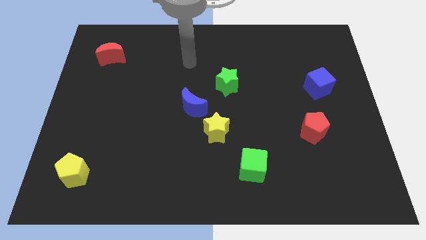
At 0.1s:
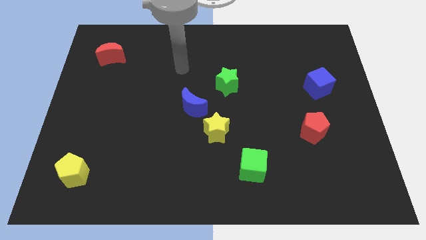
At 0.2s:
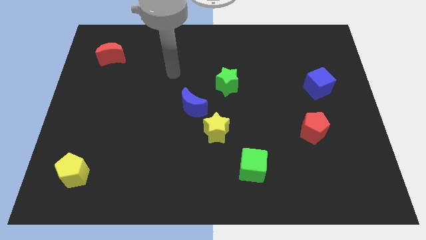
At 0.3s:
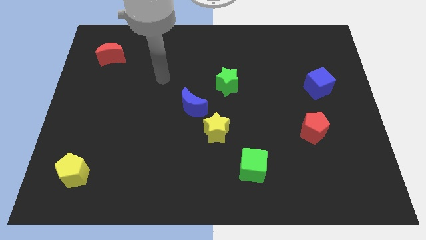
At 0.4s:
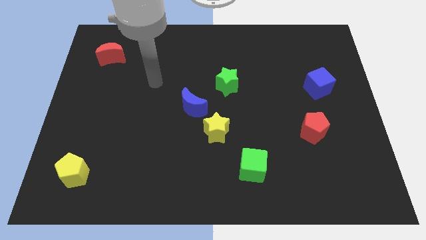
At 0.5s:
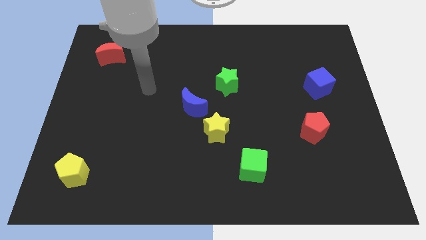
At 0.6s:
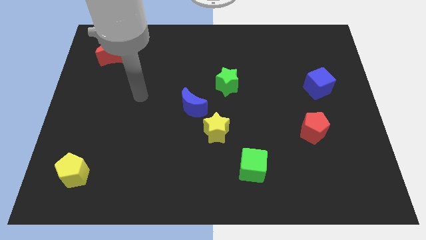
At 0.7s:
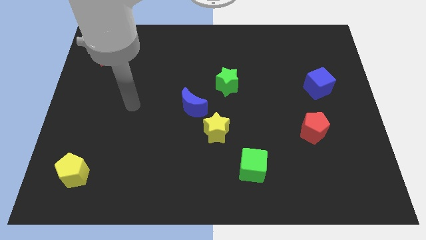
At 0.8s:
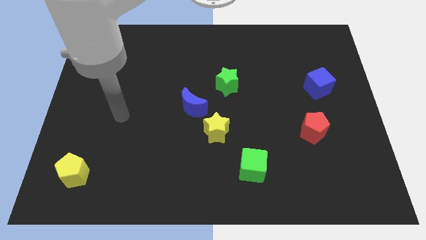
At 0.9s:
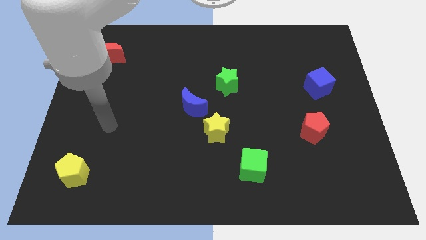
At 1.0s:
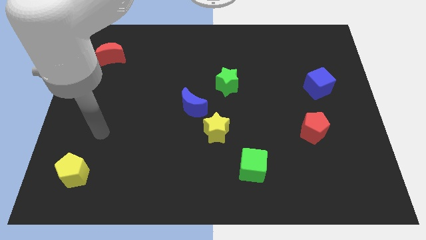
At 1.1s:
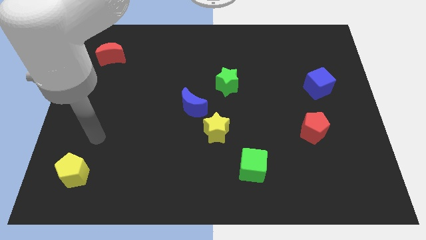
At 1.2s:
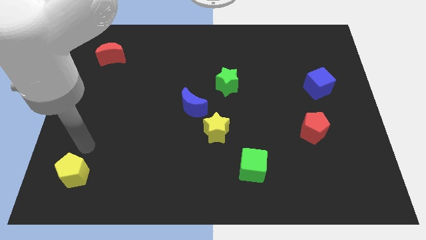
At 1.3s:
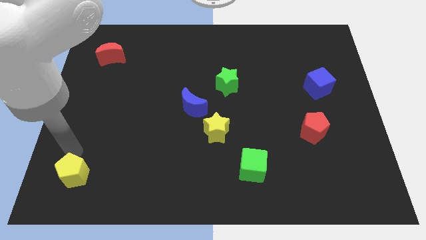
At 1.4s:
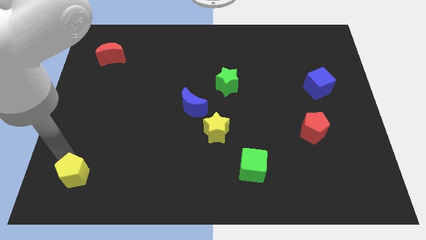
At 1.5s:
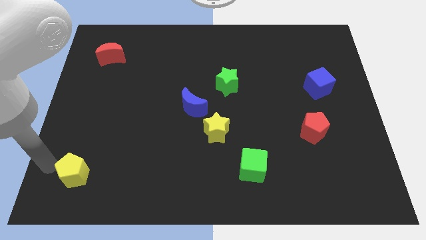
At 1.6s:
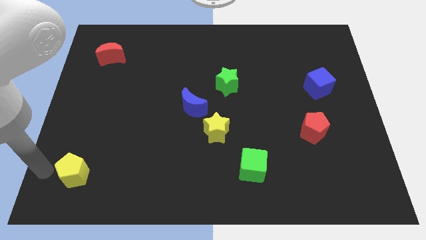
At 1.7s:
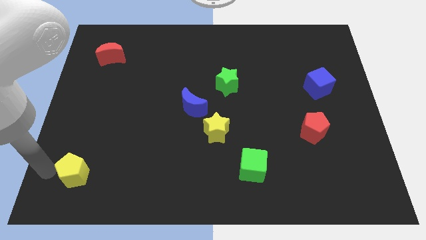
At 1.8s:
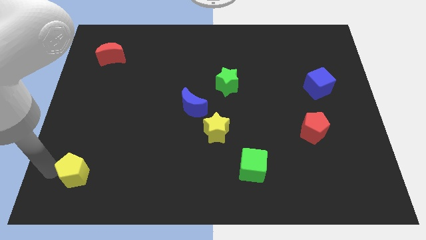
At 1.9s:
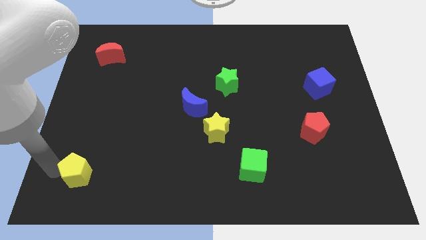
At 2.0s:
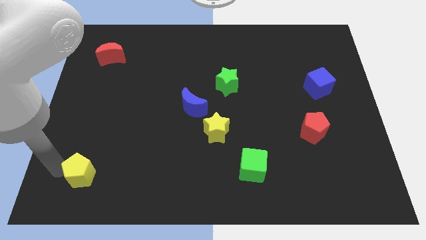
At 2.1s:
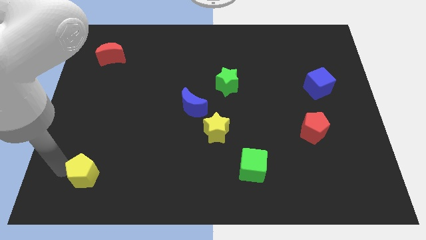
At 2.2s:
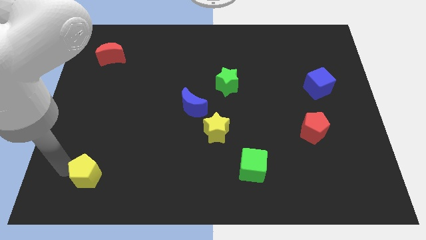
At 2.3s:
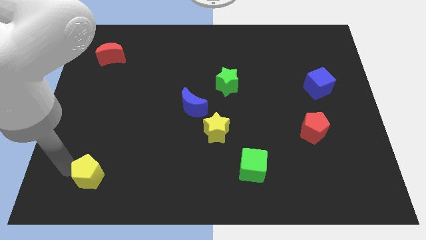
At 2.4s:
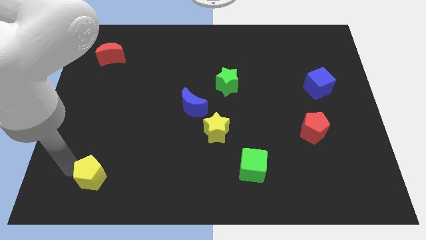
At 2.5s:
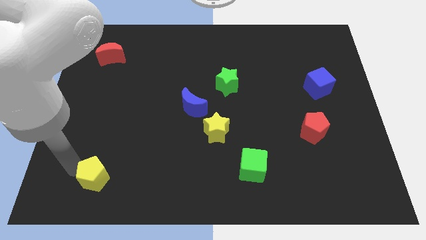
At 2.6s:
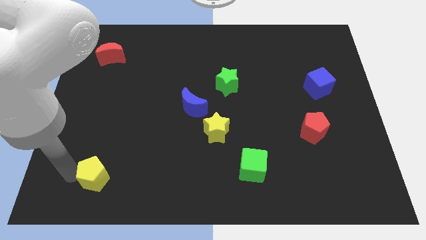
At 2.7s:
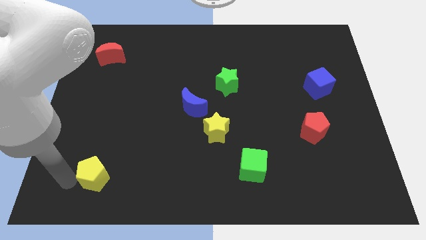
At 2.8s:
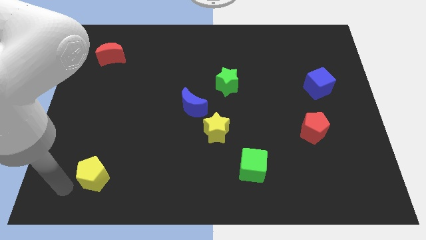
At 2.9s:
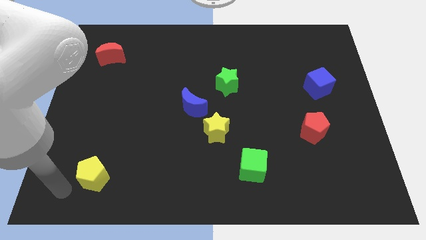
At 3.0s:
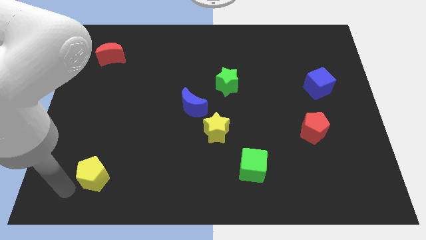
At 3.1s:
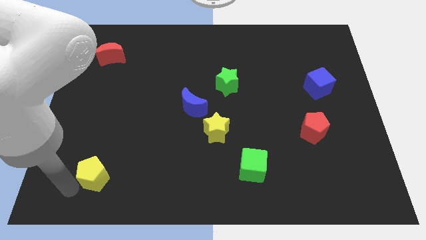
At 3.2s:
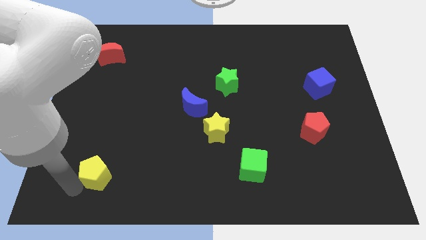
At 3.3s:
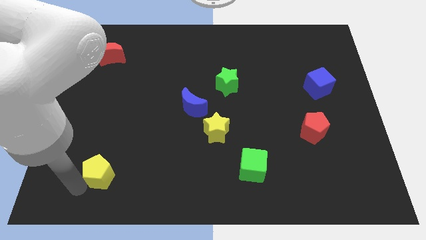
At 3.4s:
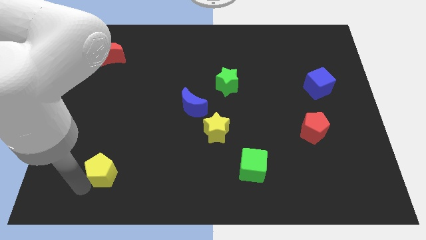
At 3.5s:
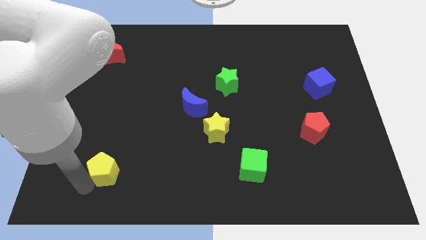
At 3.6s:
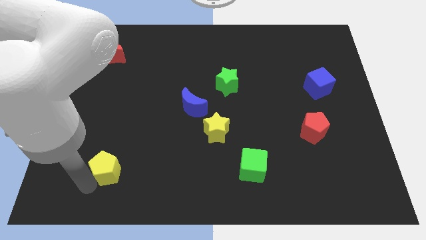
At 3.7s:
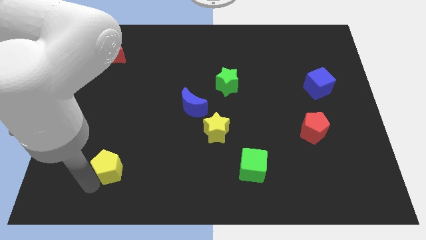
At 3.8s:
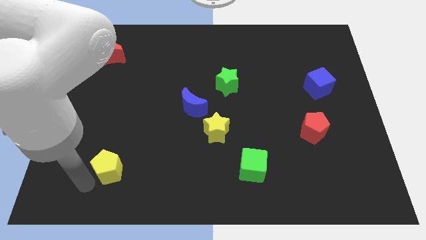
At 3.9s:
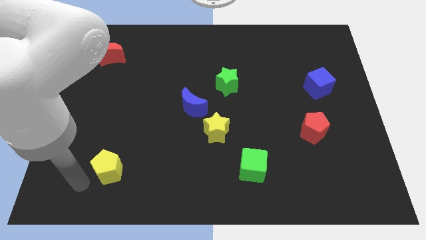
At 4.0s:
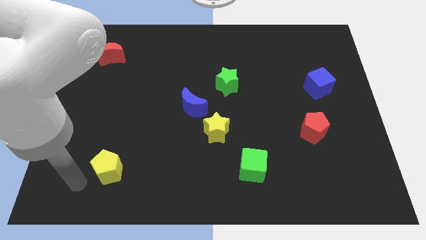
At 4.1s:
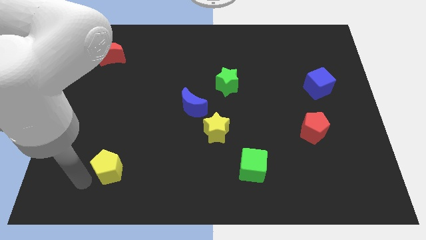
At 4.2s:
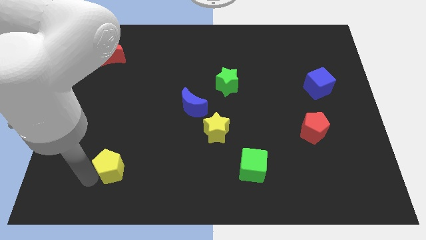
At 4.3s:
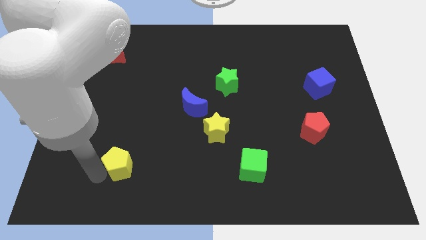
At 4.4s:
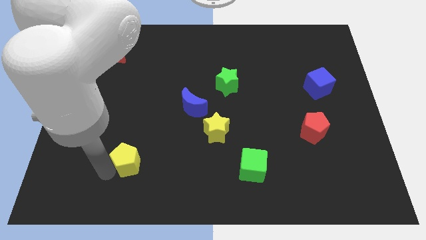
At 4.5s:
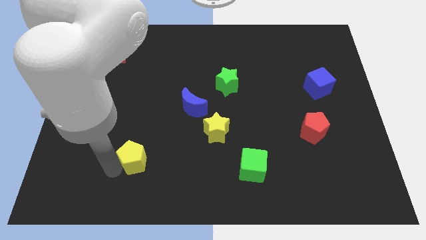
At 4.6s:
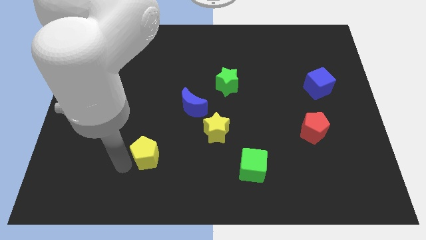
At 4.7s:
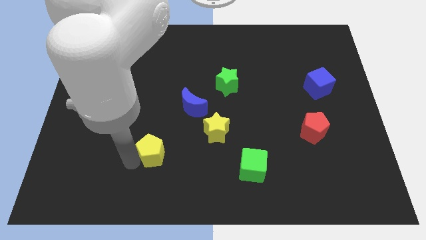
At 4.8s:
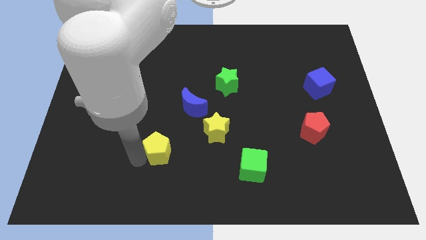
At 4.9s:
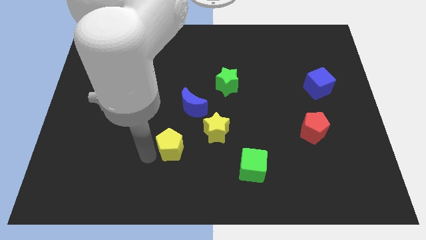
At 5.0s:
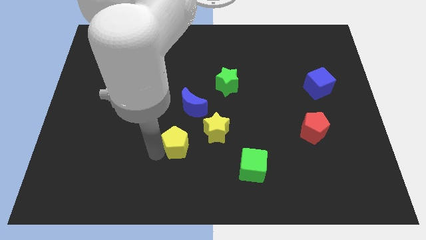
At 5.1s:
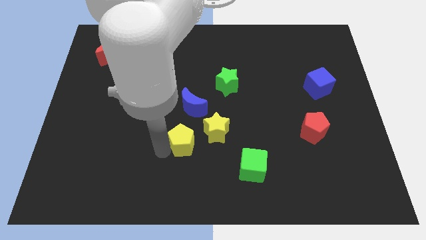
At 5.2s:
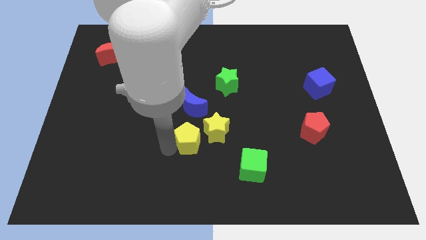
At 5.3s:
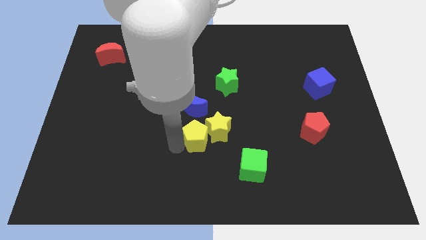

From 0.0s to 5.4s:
put the yellow pentagon close to the yellow star

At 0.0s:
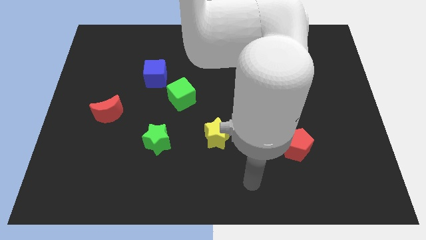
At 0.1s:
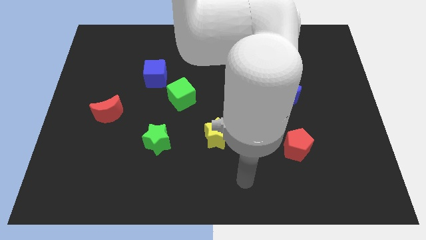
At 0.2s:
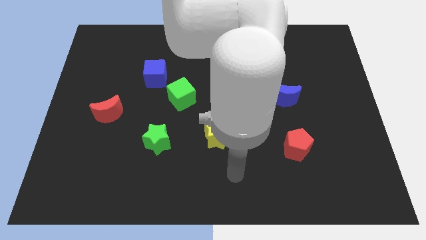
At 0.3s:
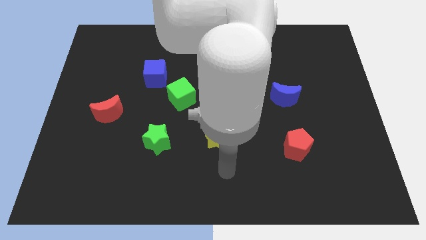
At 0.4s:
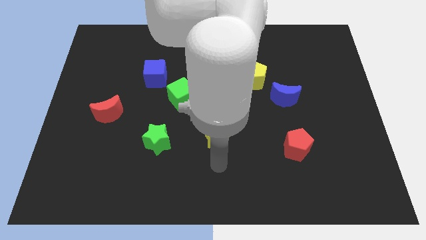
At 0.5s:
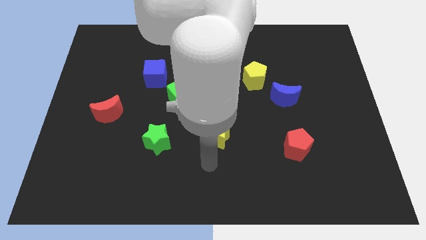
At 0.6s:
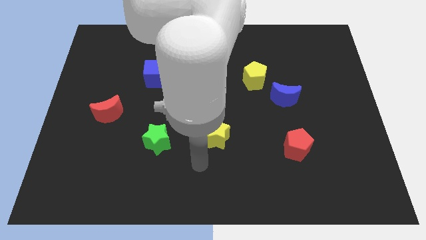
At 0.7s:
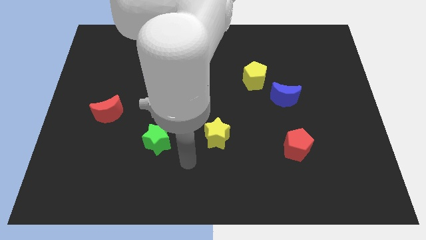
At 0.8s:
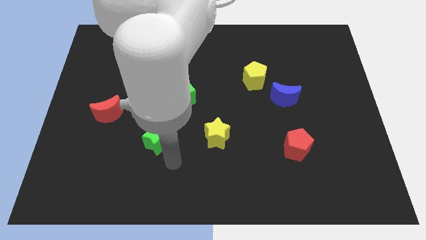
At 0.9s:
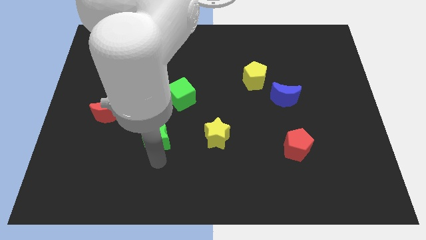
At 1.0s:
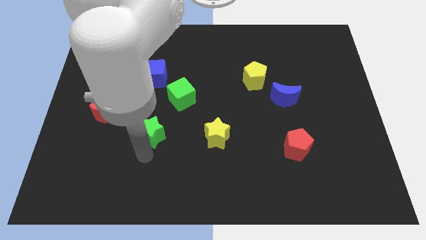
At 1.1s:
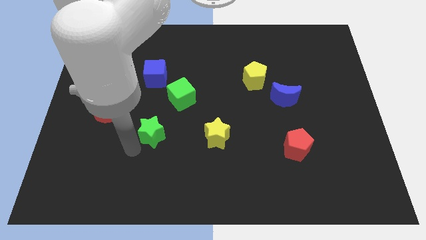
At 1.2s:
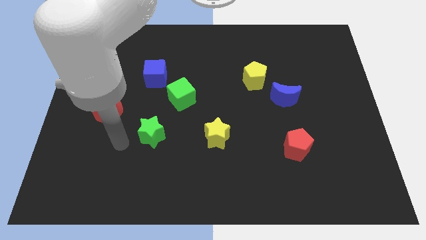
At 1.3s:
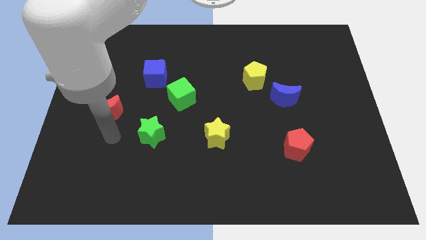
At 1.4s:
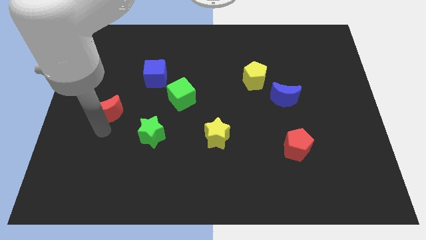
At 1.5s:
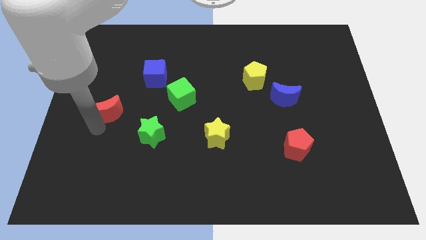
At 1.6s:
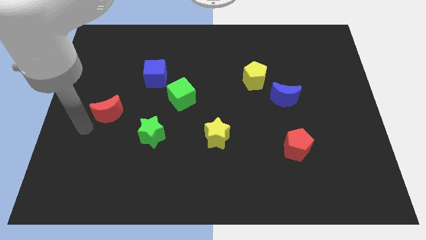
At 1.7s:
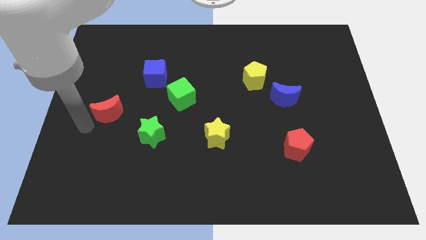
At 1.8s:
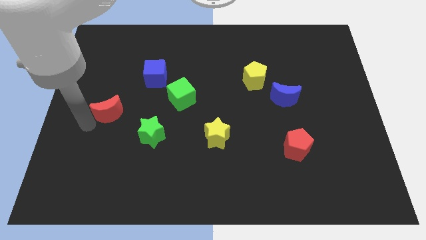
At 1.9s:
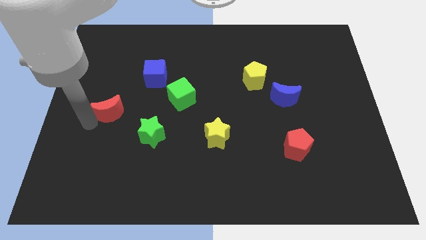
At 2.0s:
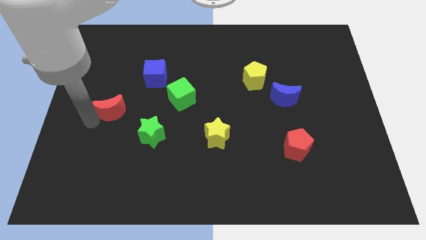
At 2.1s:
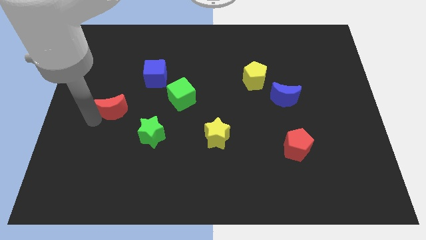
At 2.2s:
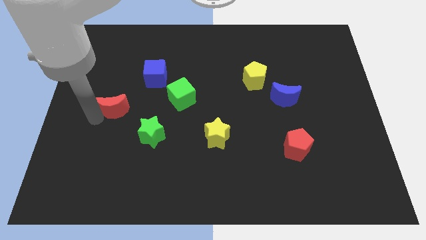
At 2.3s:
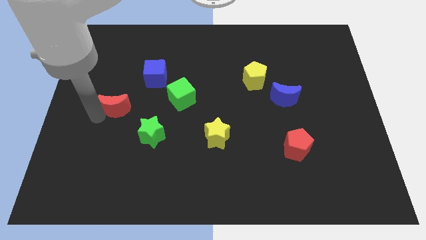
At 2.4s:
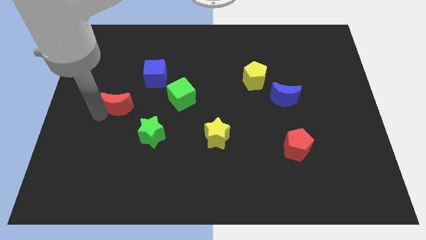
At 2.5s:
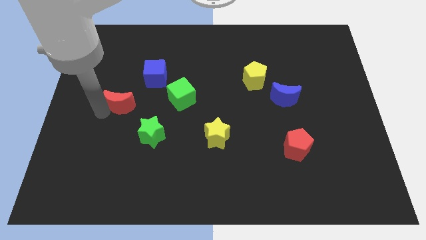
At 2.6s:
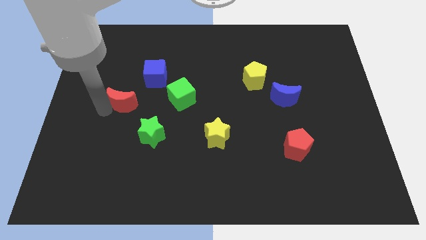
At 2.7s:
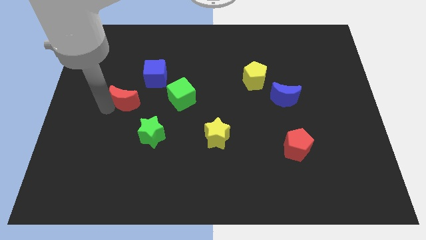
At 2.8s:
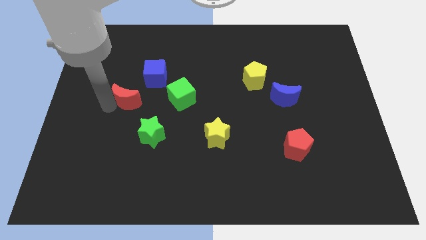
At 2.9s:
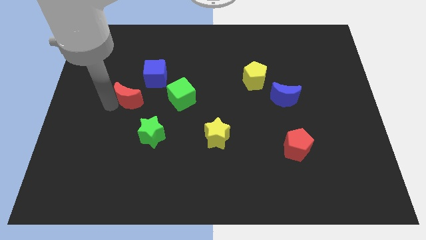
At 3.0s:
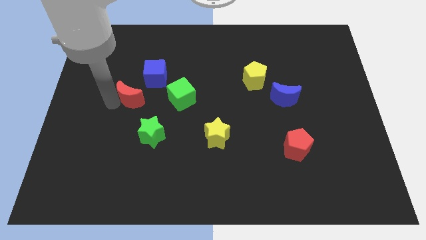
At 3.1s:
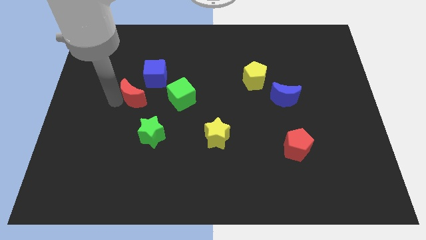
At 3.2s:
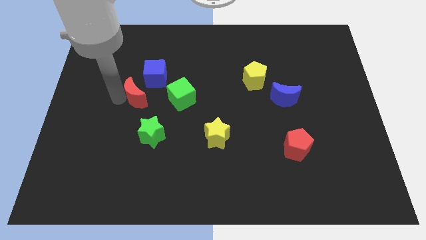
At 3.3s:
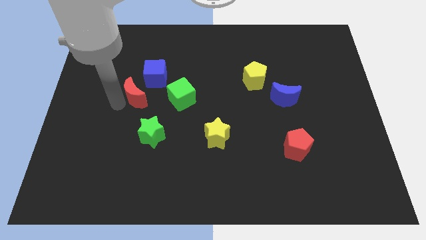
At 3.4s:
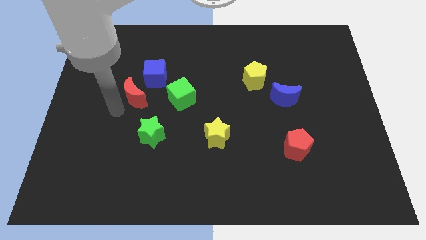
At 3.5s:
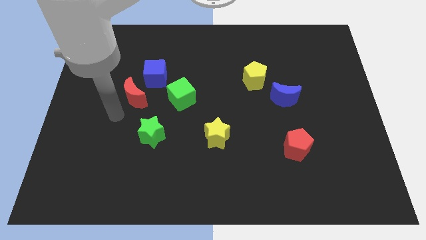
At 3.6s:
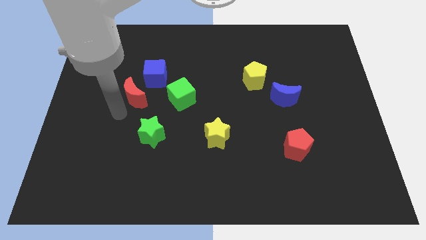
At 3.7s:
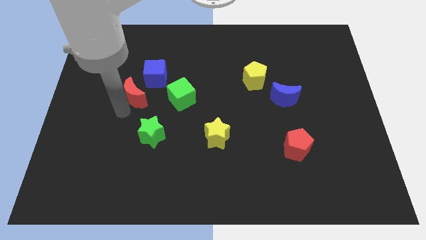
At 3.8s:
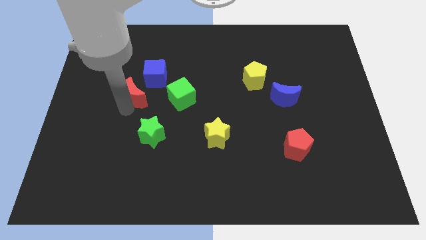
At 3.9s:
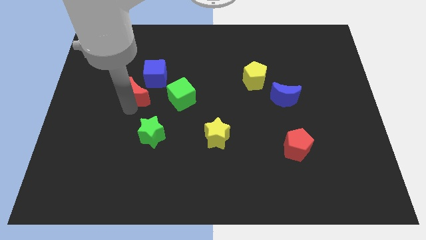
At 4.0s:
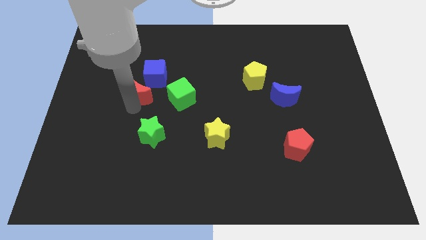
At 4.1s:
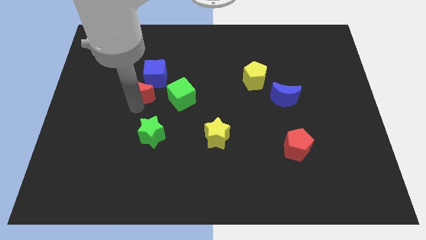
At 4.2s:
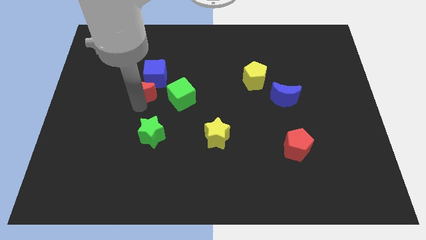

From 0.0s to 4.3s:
move the red moon next to the blue cube
